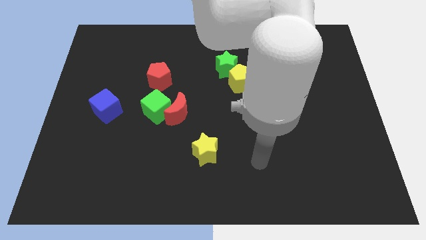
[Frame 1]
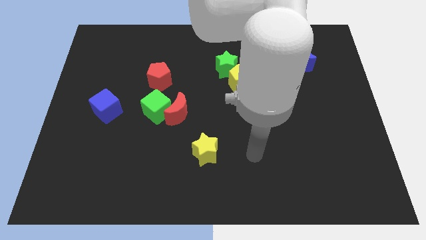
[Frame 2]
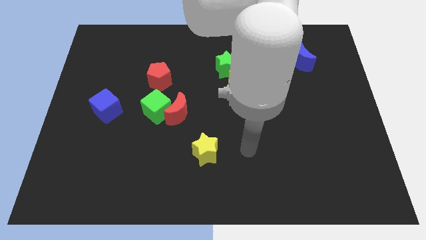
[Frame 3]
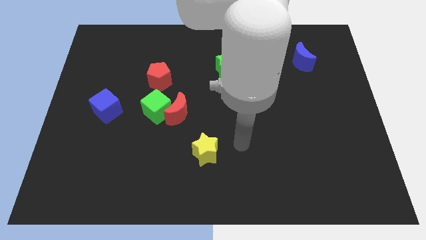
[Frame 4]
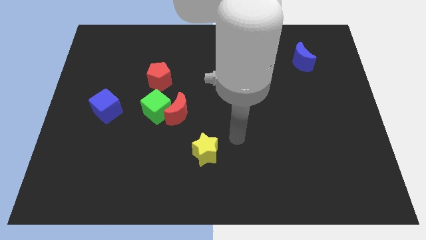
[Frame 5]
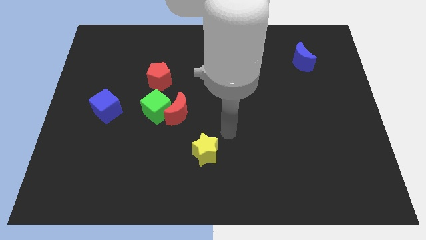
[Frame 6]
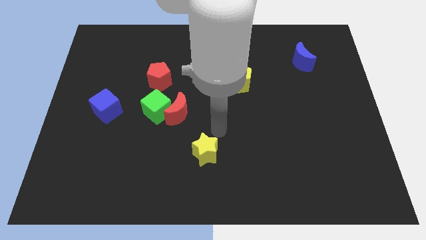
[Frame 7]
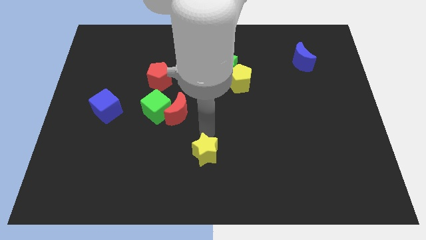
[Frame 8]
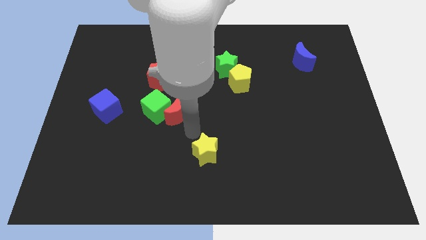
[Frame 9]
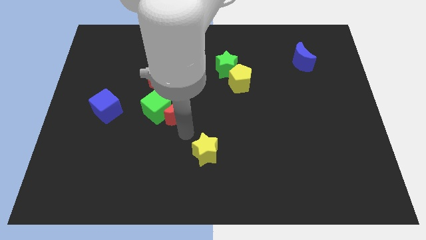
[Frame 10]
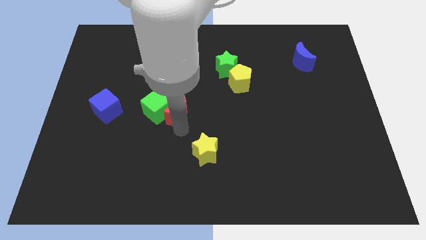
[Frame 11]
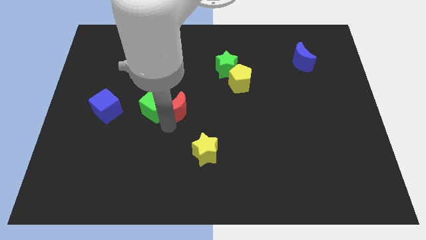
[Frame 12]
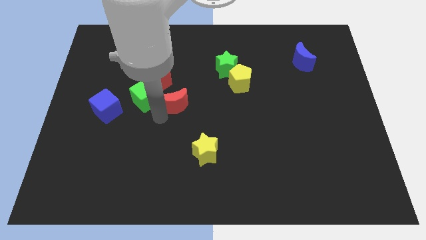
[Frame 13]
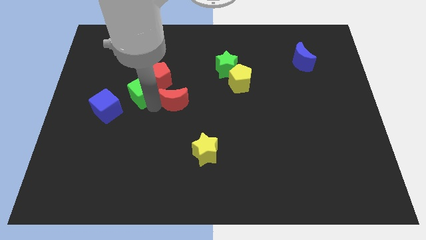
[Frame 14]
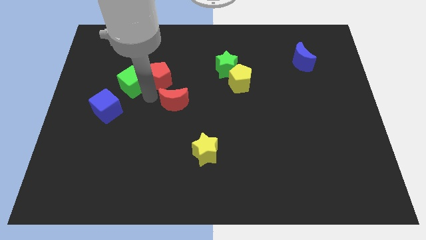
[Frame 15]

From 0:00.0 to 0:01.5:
pull the red moon apart from the green cube

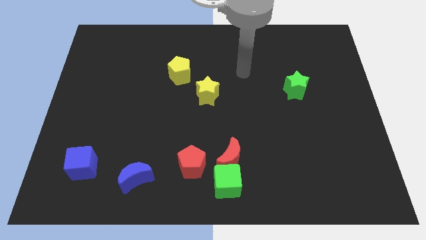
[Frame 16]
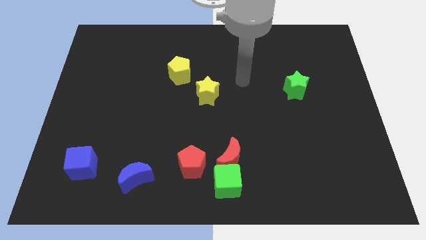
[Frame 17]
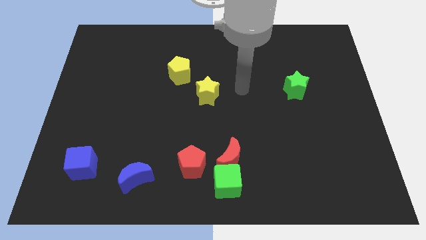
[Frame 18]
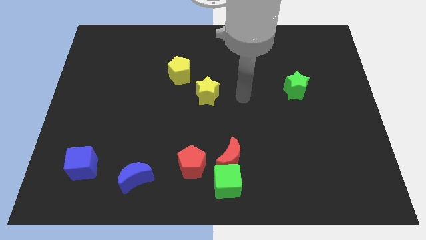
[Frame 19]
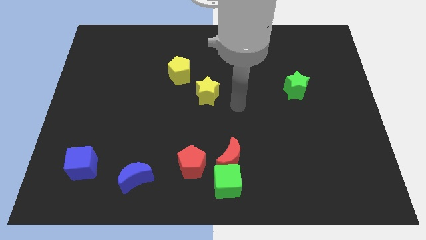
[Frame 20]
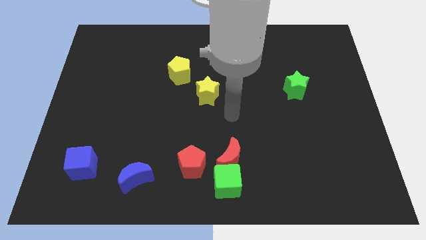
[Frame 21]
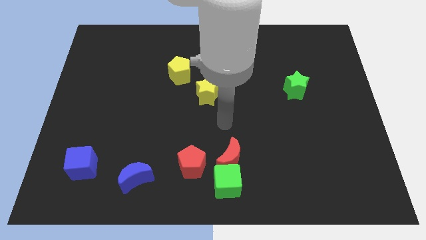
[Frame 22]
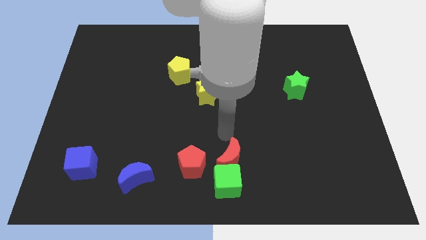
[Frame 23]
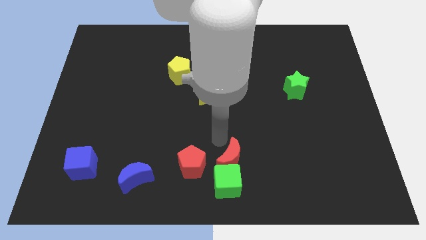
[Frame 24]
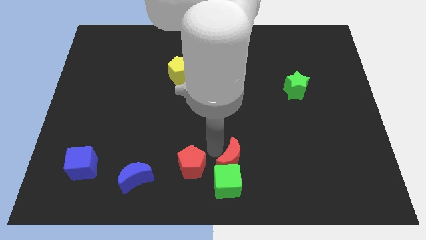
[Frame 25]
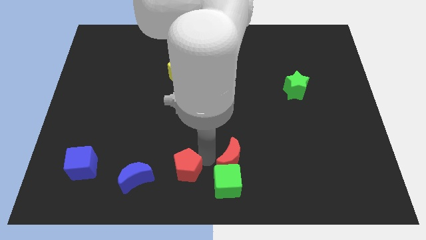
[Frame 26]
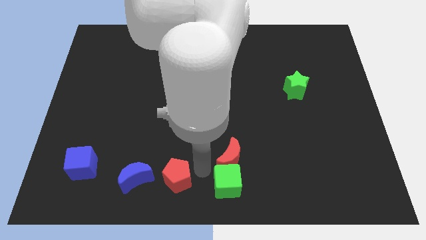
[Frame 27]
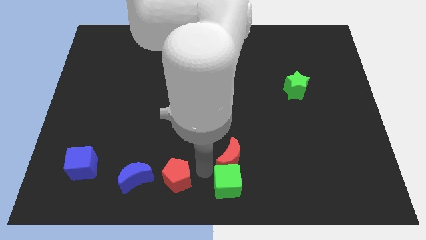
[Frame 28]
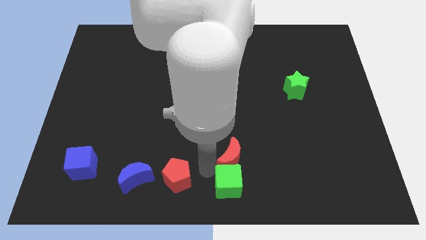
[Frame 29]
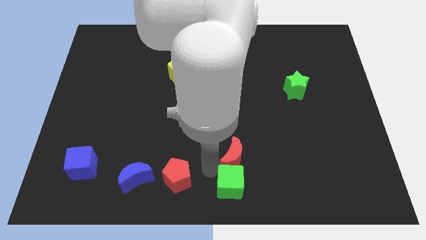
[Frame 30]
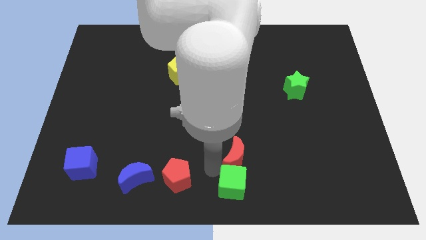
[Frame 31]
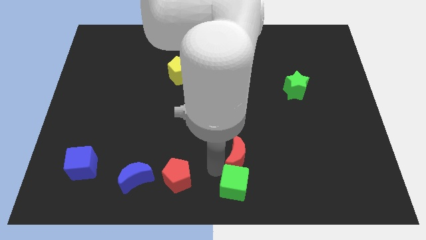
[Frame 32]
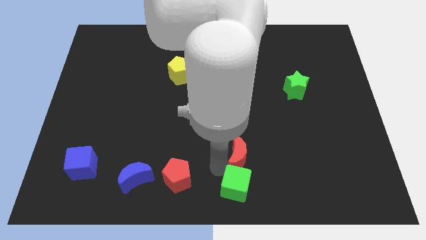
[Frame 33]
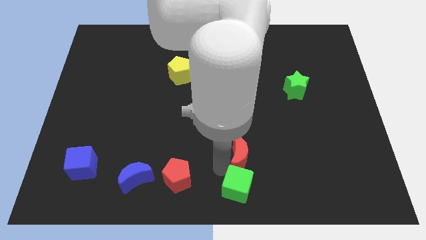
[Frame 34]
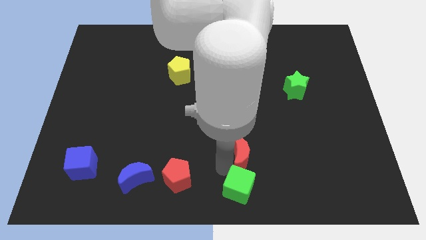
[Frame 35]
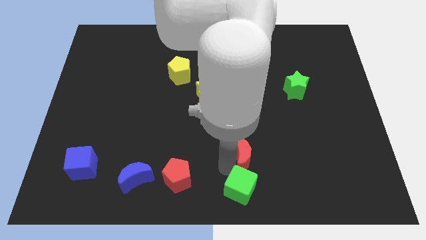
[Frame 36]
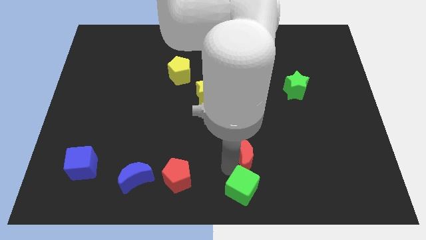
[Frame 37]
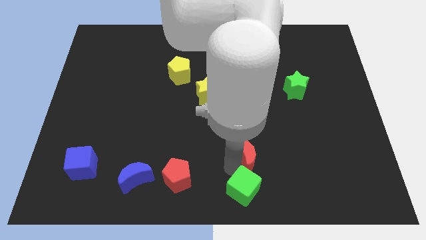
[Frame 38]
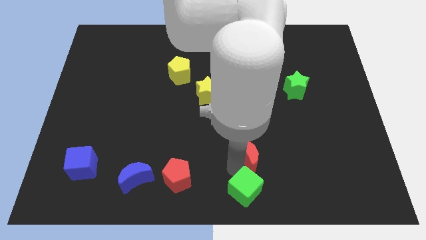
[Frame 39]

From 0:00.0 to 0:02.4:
separate the red moon from the green cube and red pentagon

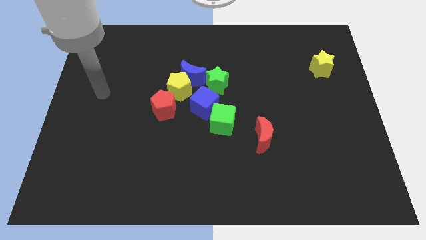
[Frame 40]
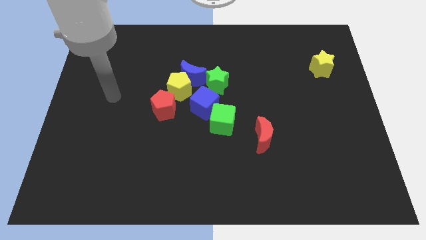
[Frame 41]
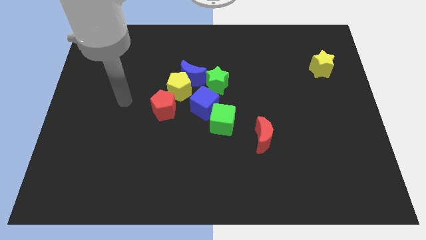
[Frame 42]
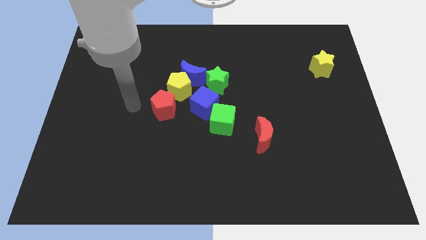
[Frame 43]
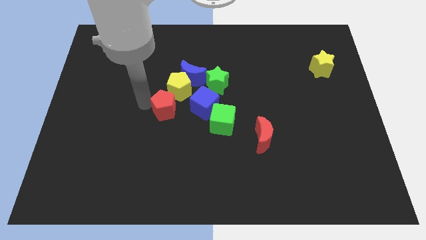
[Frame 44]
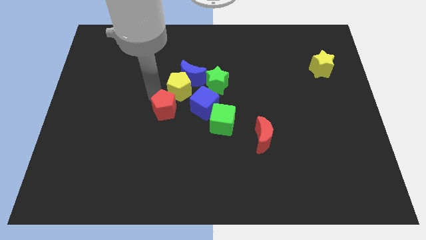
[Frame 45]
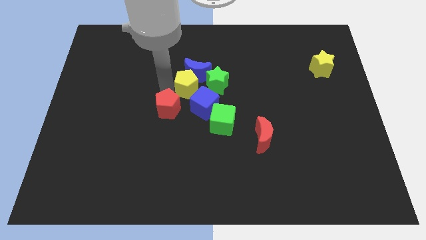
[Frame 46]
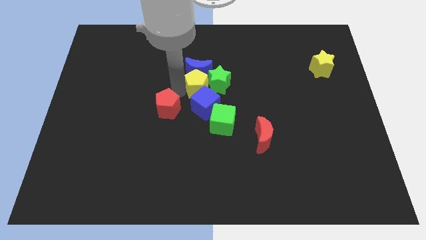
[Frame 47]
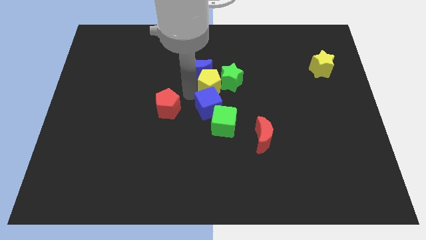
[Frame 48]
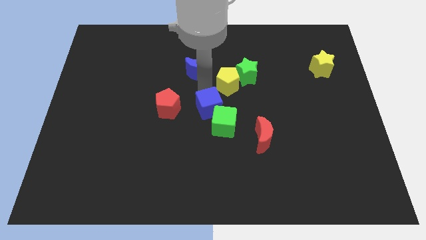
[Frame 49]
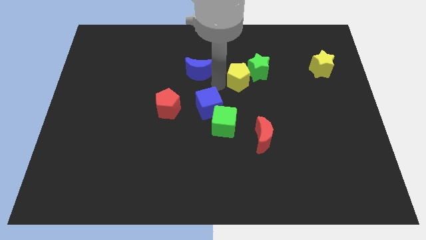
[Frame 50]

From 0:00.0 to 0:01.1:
move the blue moon away from the clump

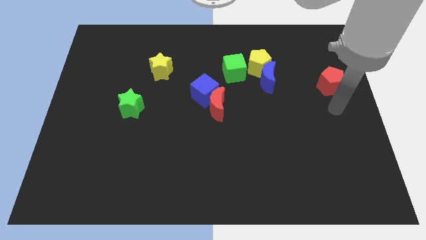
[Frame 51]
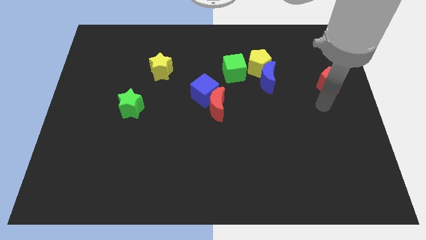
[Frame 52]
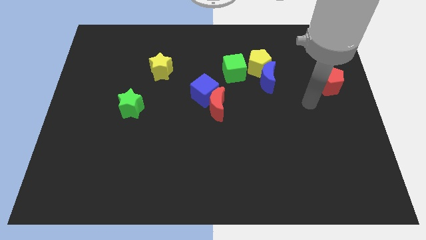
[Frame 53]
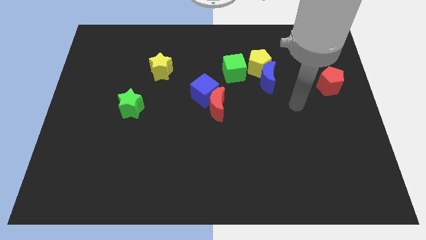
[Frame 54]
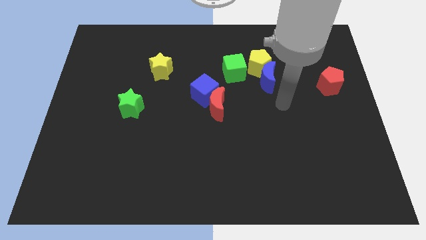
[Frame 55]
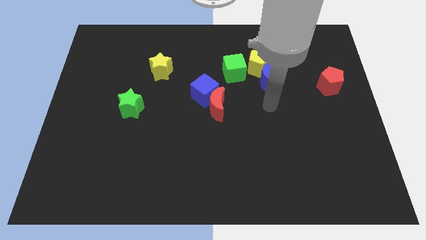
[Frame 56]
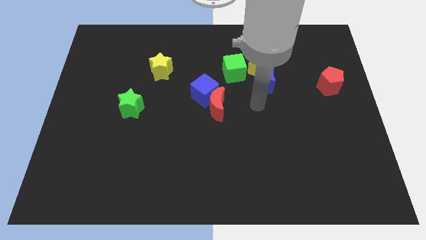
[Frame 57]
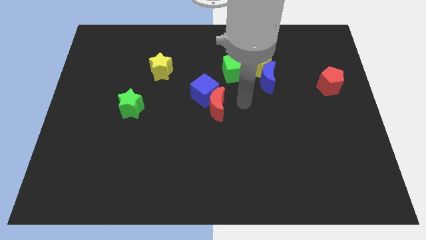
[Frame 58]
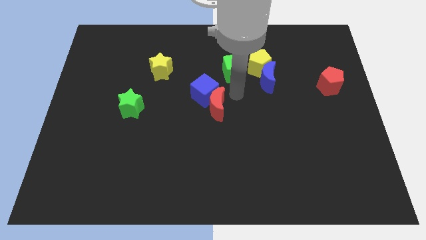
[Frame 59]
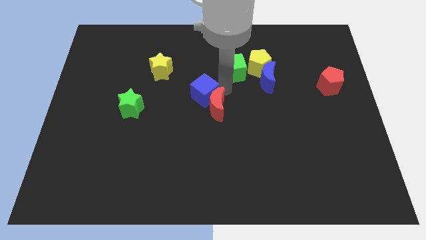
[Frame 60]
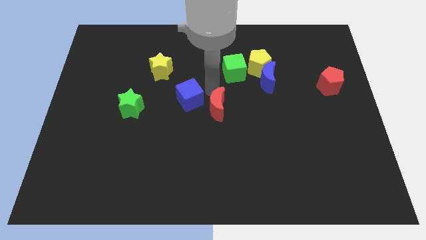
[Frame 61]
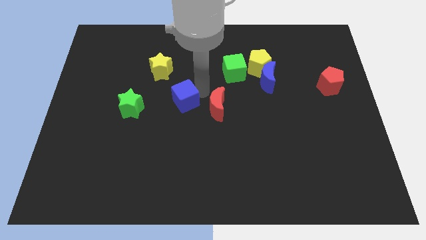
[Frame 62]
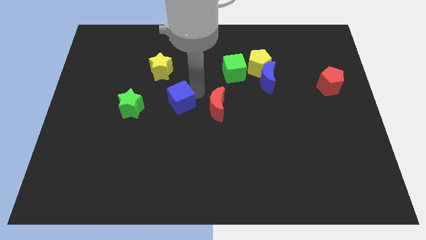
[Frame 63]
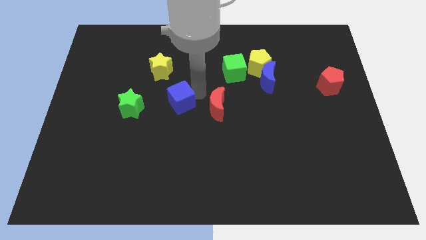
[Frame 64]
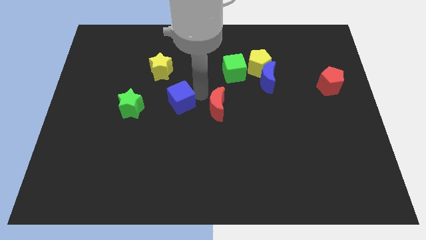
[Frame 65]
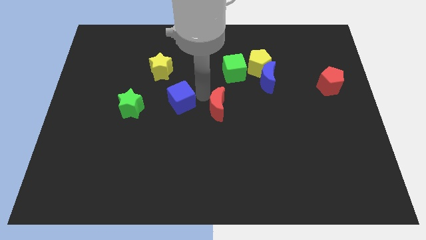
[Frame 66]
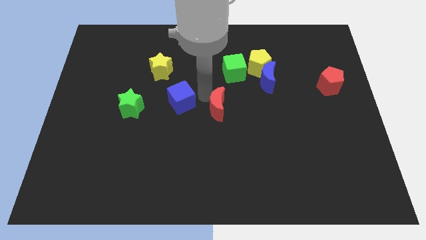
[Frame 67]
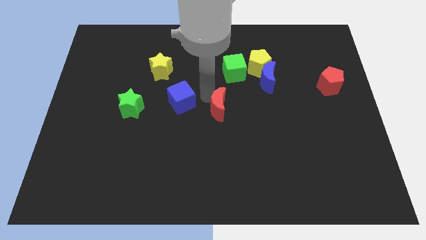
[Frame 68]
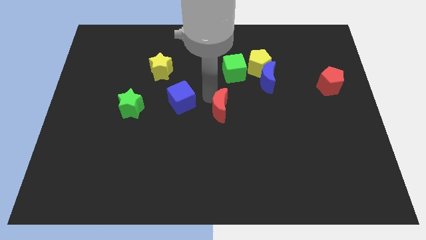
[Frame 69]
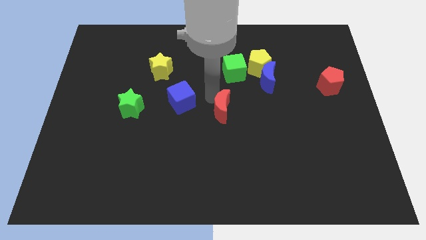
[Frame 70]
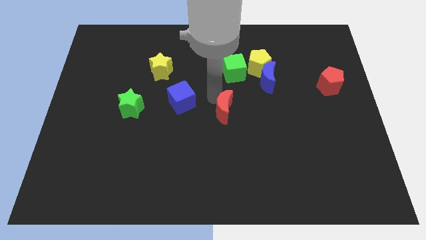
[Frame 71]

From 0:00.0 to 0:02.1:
separate the red moon from the blue cube

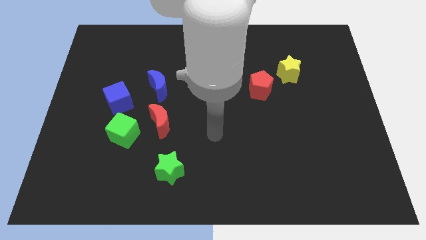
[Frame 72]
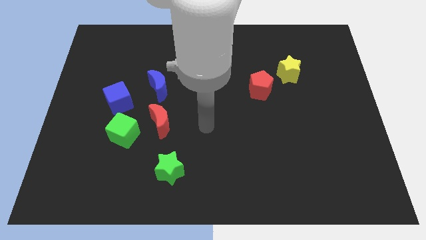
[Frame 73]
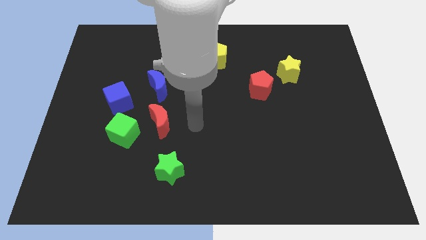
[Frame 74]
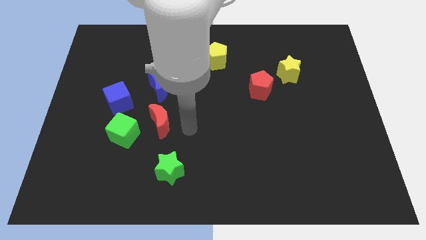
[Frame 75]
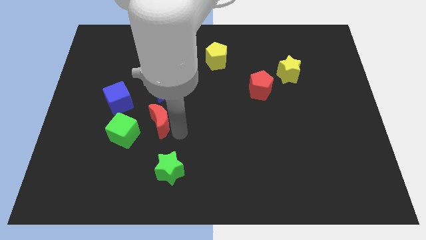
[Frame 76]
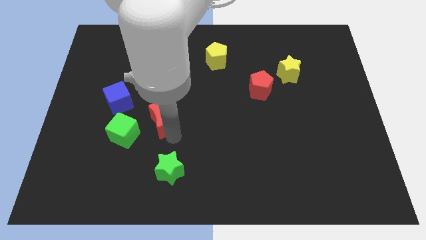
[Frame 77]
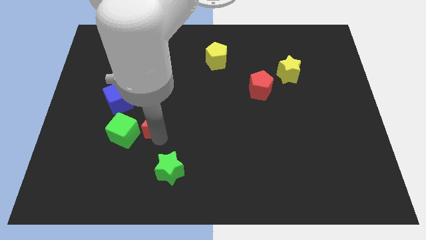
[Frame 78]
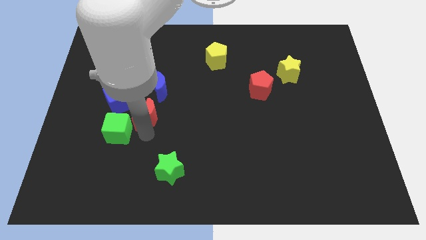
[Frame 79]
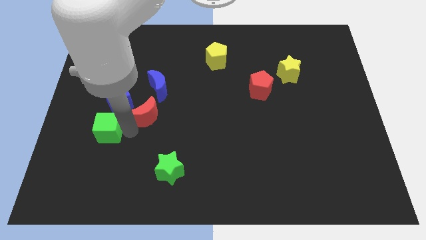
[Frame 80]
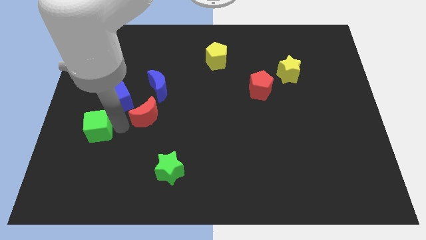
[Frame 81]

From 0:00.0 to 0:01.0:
separate the red moon from the green cube

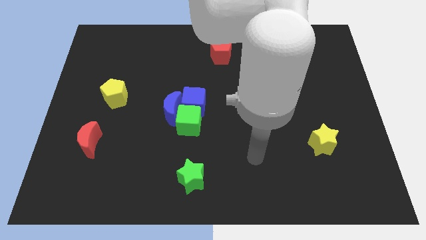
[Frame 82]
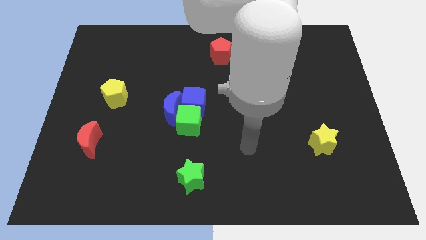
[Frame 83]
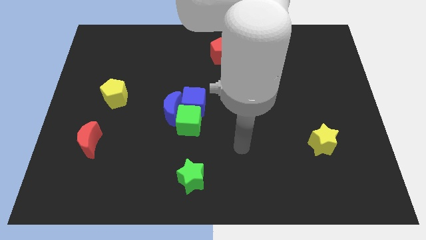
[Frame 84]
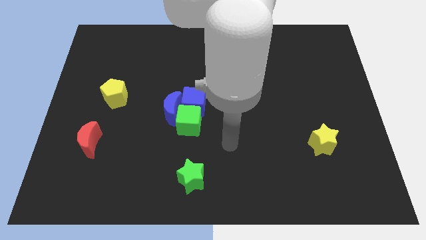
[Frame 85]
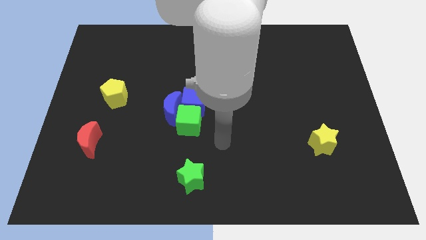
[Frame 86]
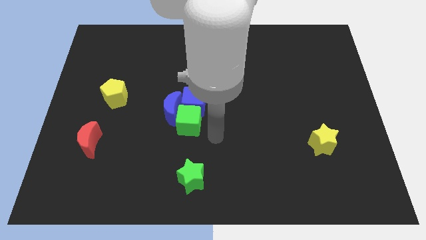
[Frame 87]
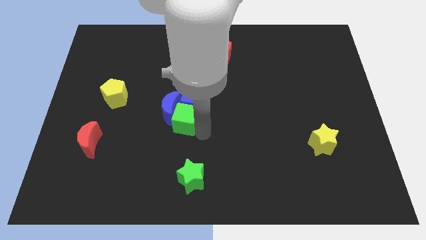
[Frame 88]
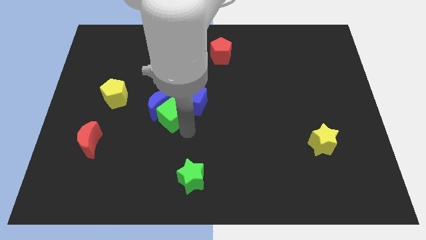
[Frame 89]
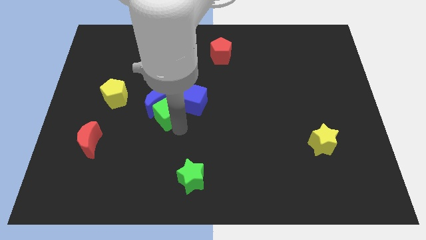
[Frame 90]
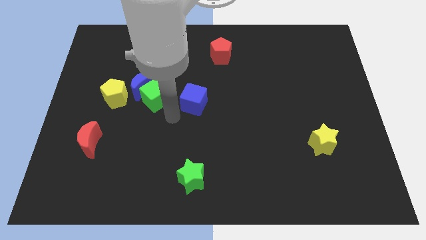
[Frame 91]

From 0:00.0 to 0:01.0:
separate the blue cube from the blue moon and green cube

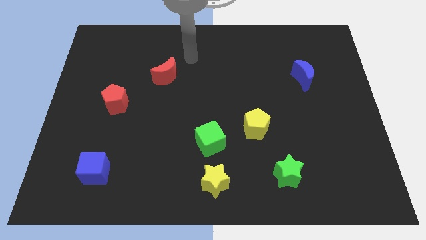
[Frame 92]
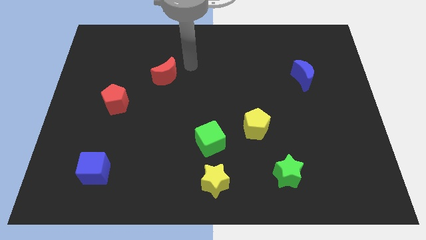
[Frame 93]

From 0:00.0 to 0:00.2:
separate the green cube from the yellow star
